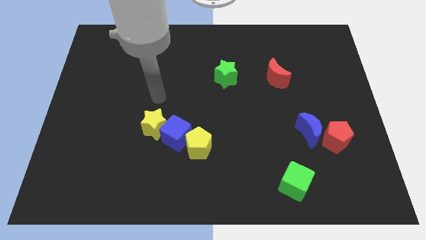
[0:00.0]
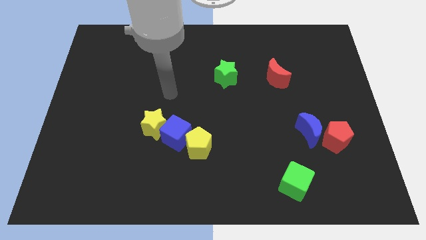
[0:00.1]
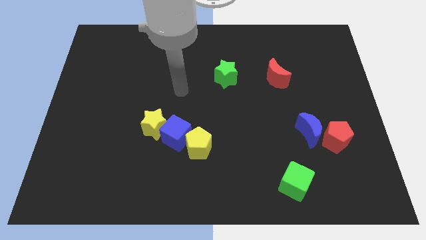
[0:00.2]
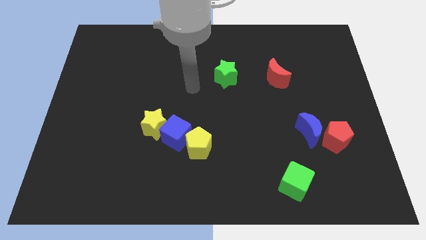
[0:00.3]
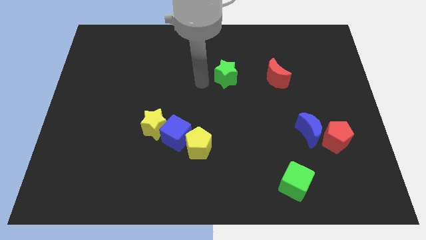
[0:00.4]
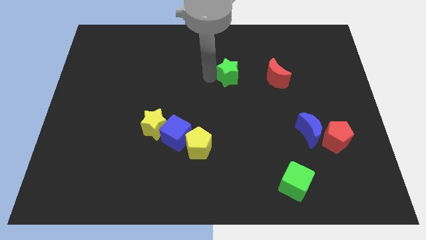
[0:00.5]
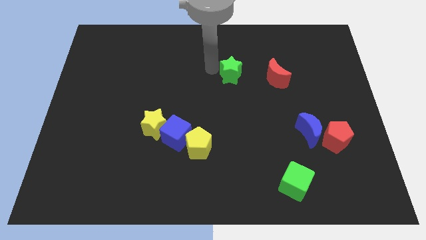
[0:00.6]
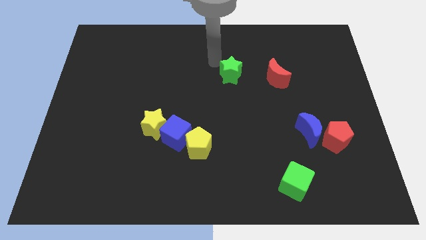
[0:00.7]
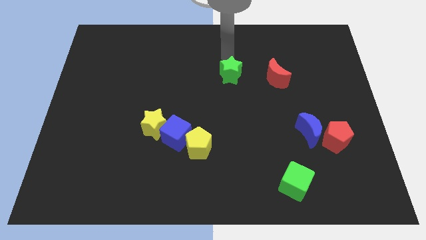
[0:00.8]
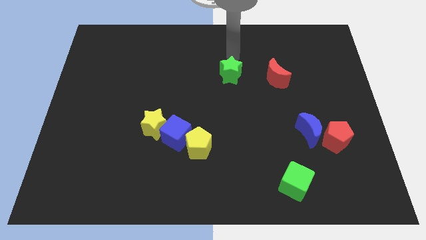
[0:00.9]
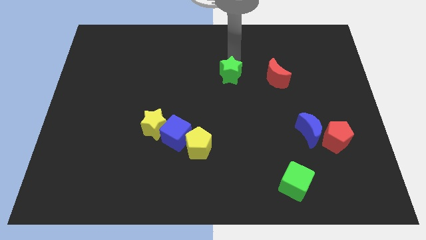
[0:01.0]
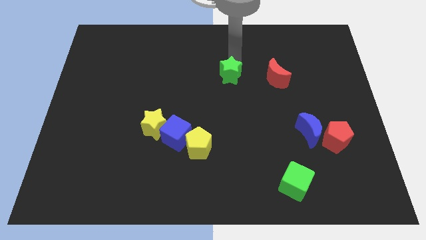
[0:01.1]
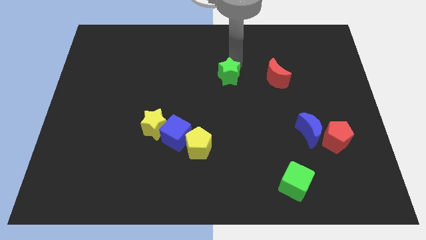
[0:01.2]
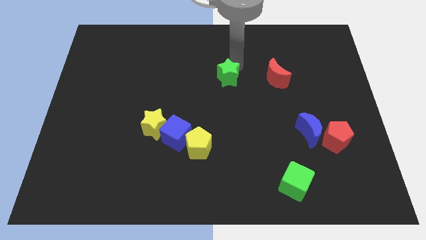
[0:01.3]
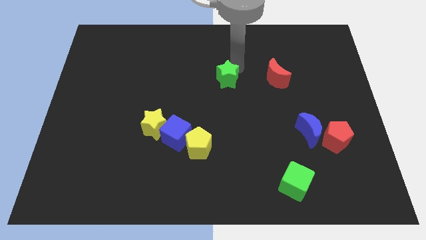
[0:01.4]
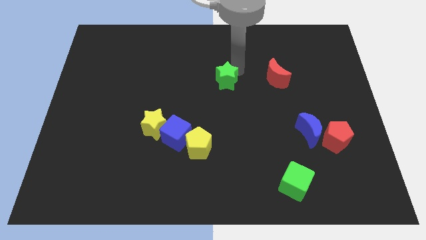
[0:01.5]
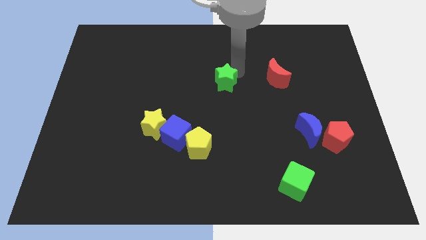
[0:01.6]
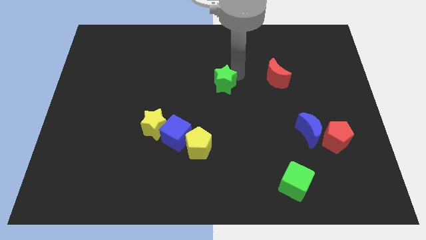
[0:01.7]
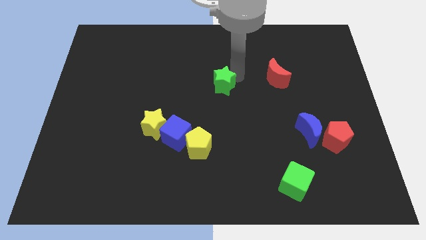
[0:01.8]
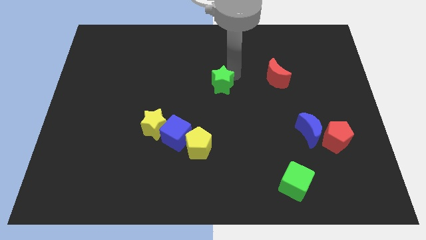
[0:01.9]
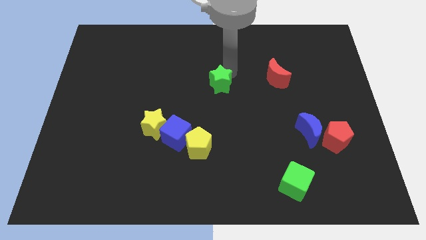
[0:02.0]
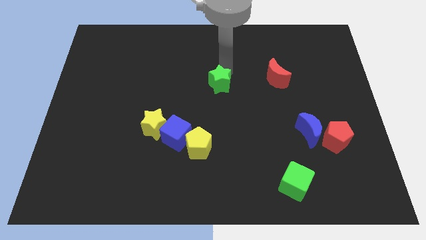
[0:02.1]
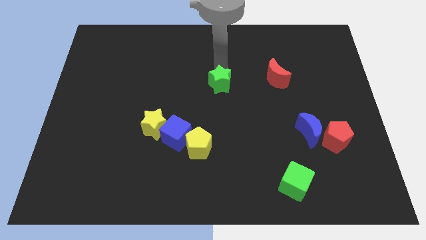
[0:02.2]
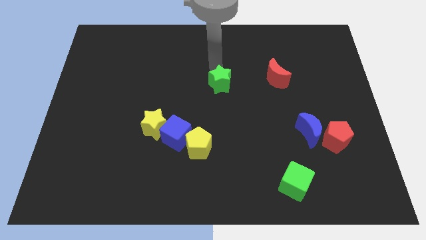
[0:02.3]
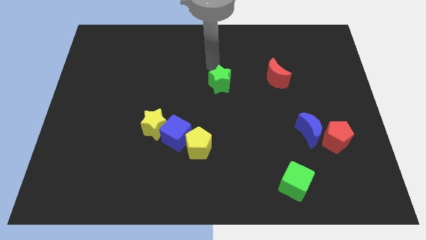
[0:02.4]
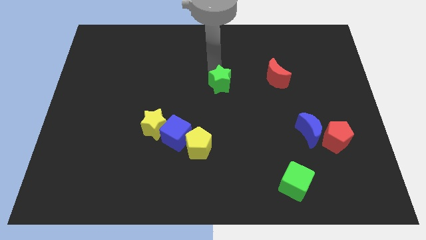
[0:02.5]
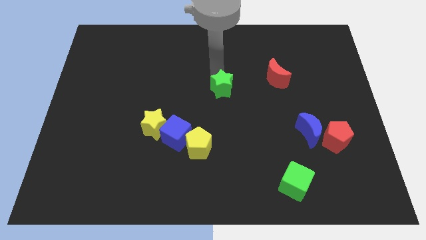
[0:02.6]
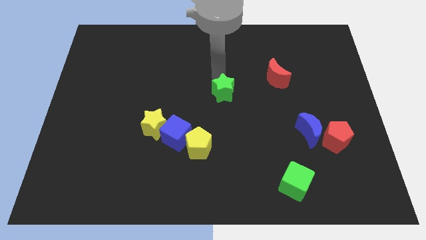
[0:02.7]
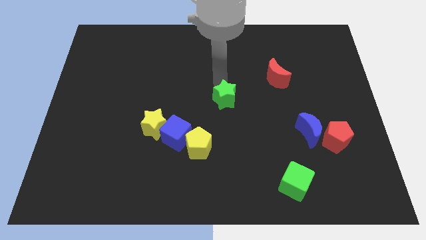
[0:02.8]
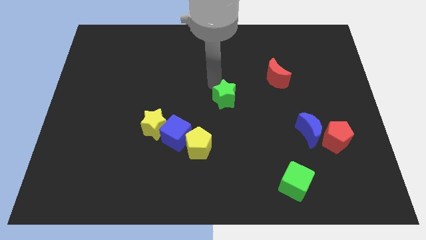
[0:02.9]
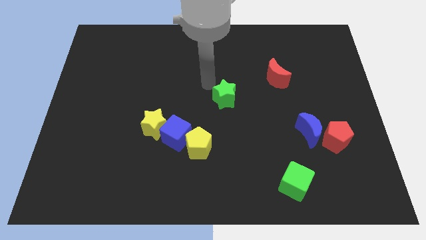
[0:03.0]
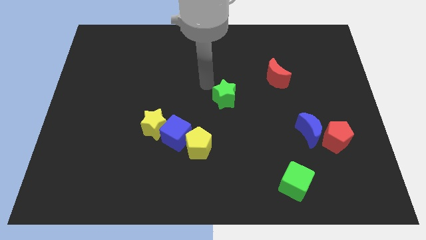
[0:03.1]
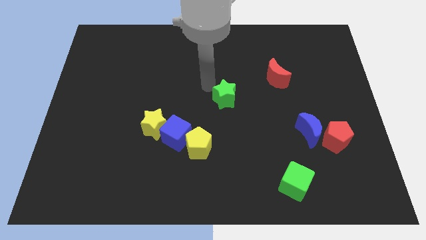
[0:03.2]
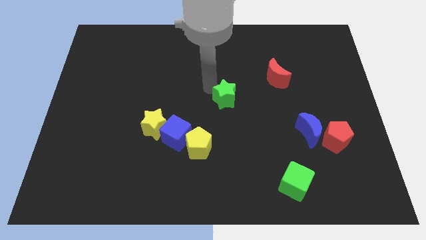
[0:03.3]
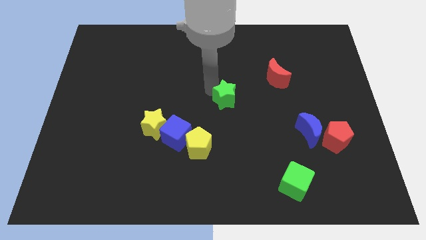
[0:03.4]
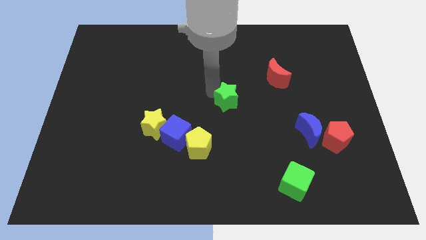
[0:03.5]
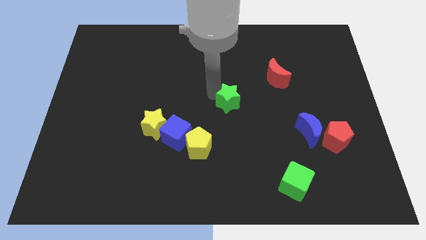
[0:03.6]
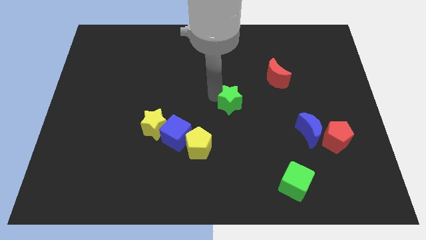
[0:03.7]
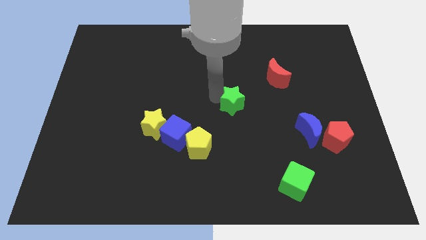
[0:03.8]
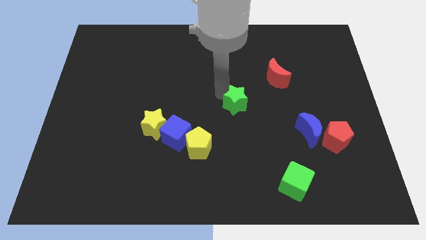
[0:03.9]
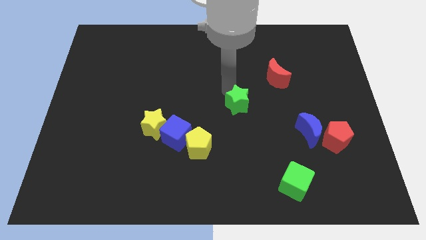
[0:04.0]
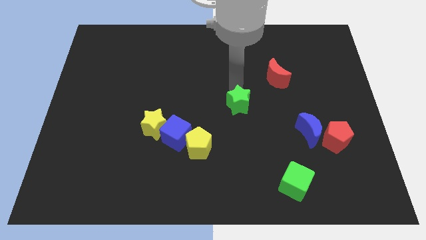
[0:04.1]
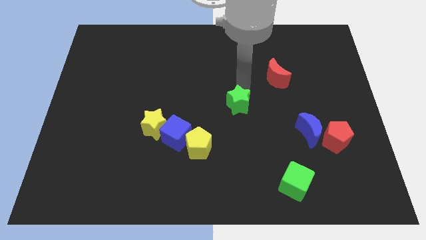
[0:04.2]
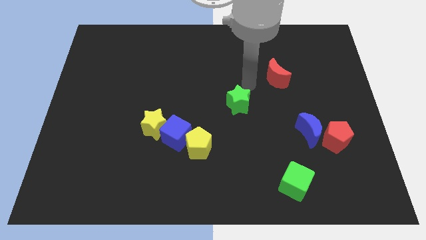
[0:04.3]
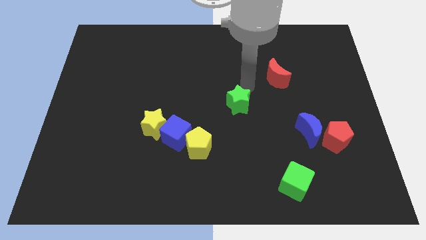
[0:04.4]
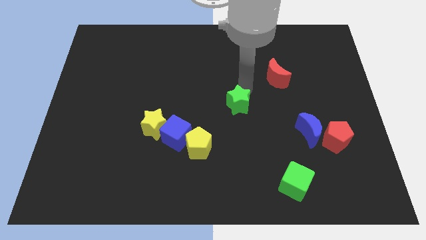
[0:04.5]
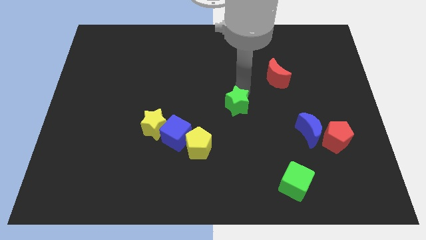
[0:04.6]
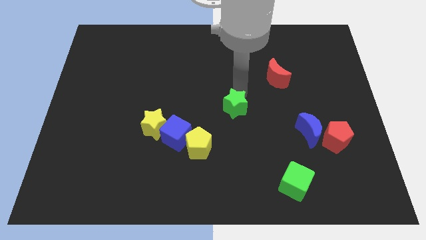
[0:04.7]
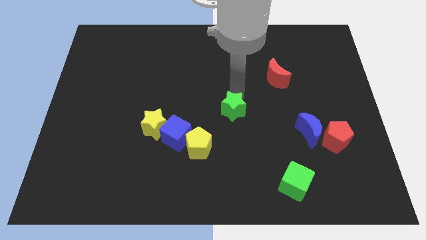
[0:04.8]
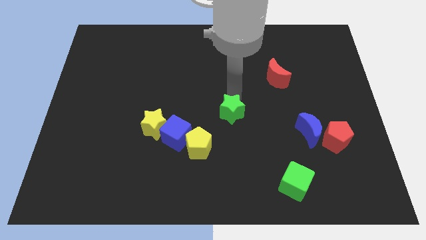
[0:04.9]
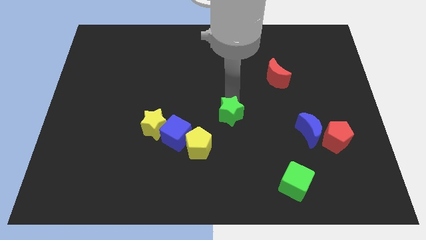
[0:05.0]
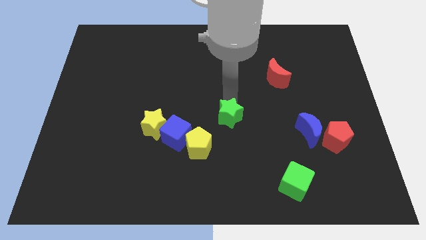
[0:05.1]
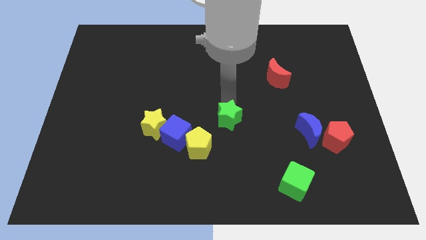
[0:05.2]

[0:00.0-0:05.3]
put the green star to the right of the blue cube

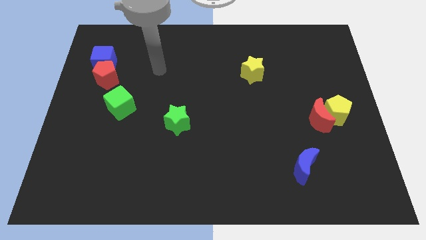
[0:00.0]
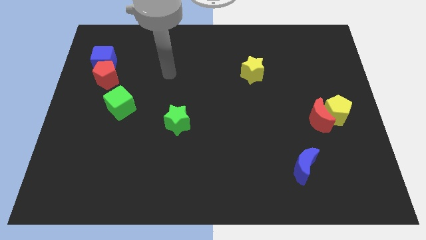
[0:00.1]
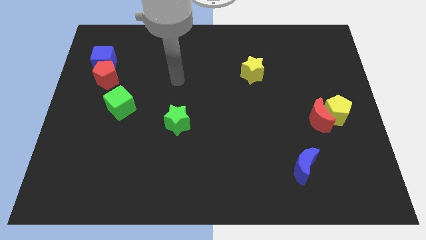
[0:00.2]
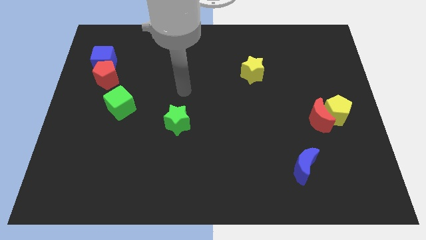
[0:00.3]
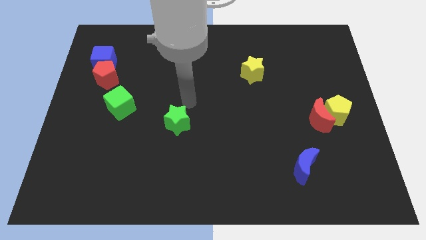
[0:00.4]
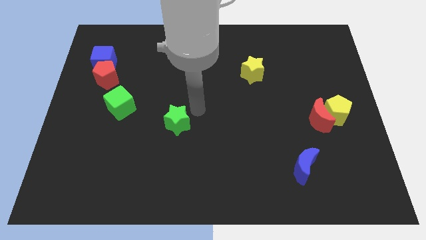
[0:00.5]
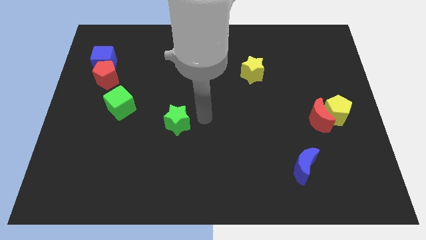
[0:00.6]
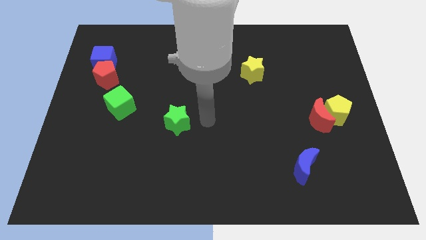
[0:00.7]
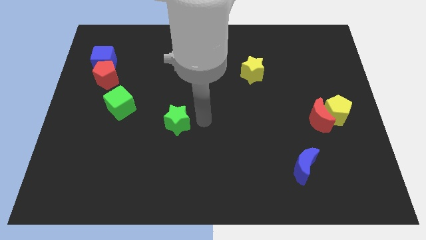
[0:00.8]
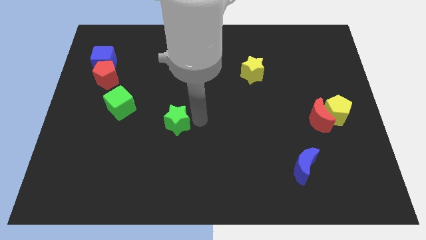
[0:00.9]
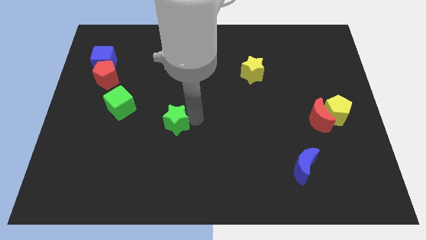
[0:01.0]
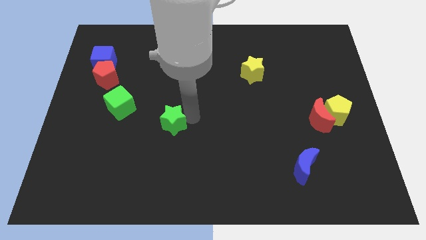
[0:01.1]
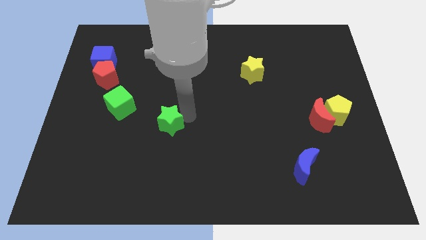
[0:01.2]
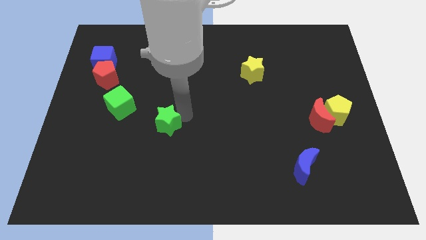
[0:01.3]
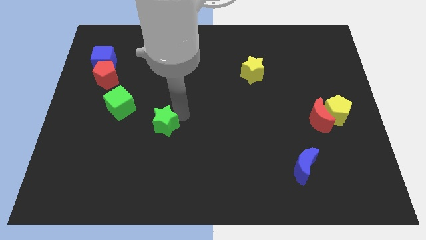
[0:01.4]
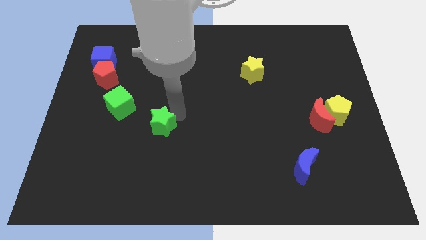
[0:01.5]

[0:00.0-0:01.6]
move the green star to the bottom right of the green cube
